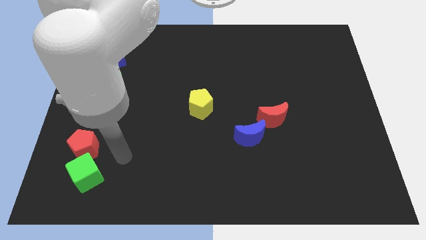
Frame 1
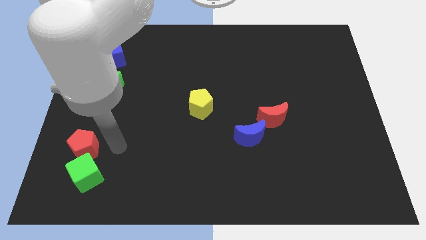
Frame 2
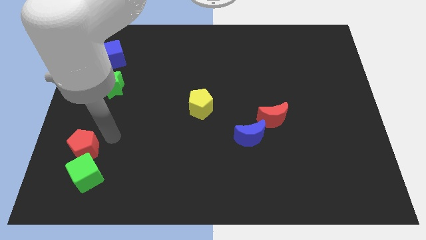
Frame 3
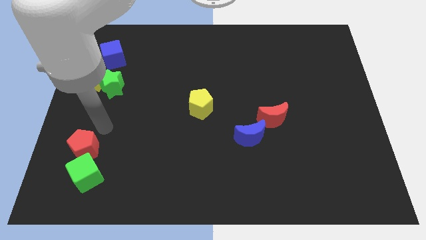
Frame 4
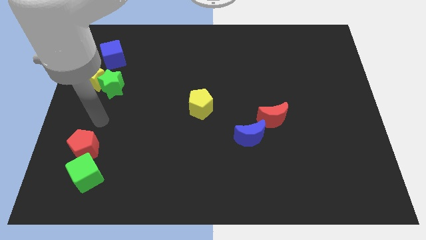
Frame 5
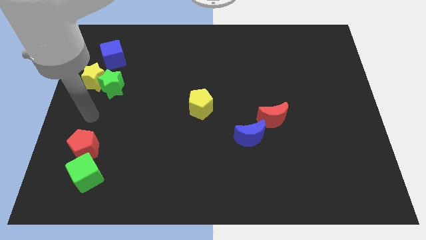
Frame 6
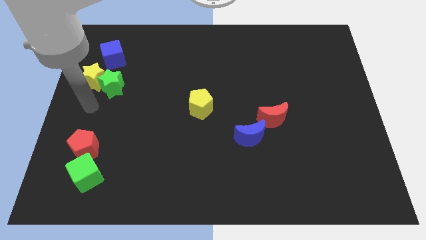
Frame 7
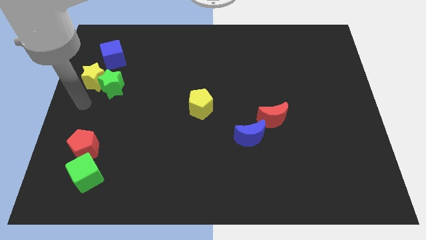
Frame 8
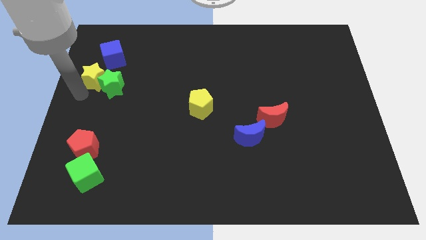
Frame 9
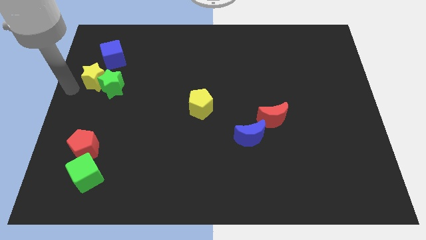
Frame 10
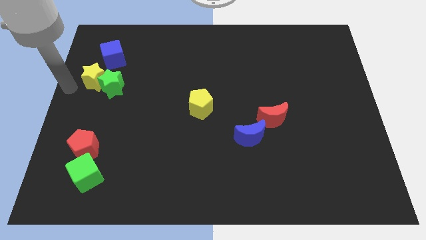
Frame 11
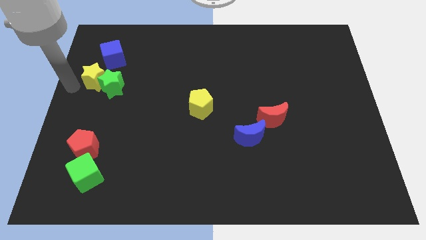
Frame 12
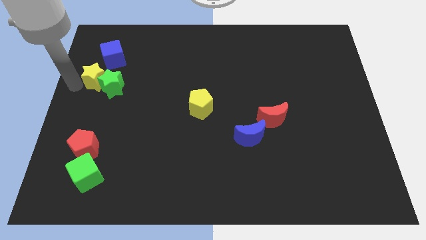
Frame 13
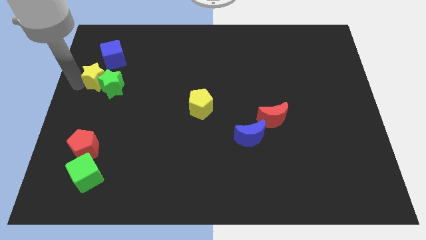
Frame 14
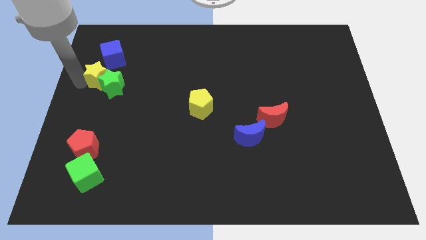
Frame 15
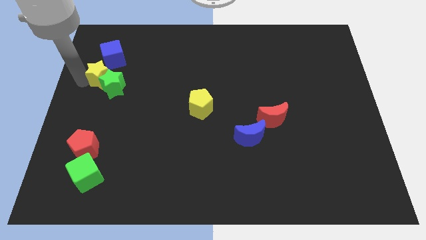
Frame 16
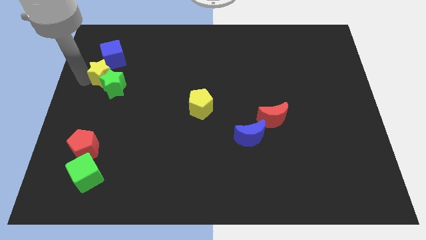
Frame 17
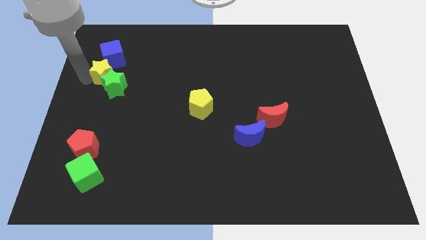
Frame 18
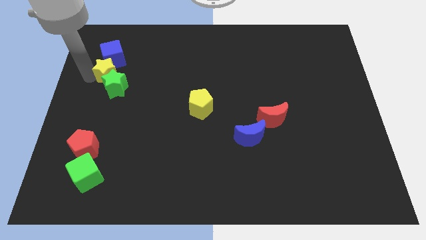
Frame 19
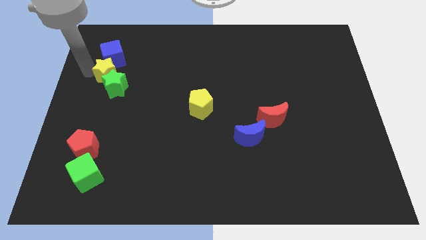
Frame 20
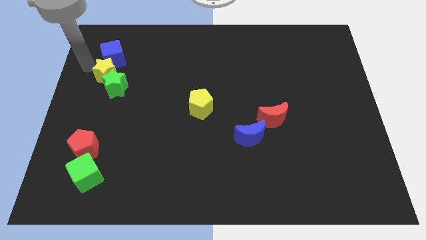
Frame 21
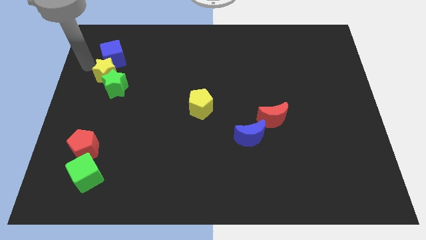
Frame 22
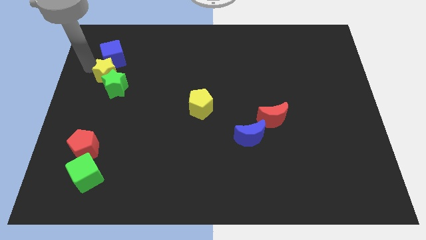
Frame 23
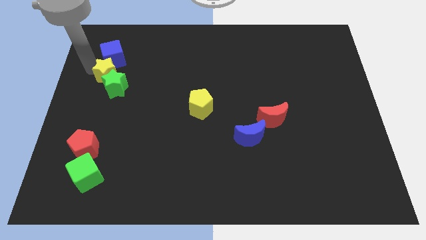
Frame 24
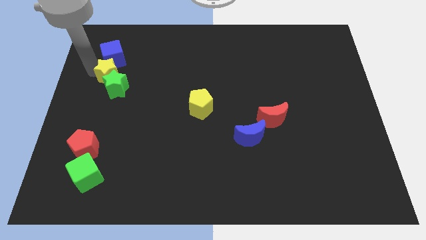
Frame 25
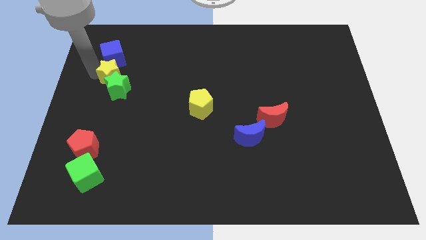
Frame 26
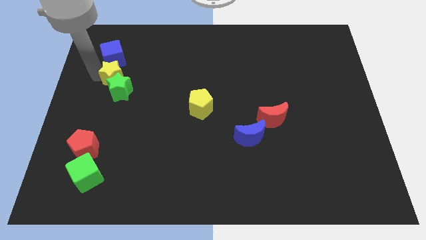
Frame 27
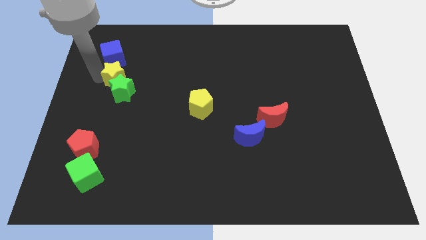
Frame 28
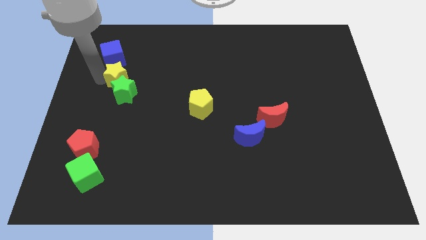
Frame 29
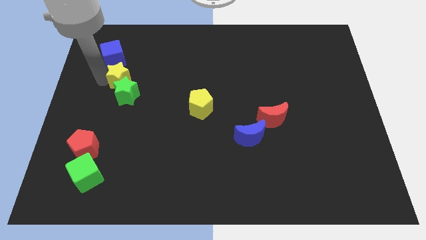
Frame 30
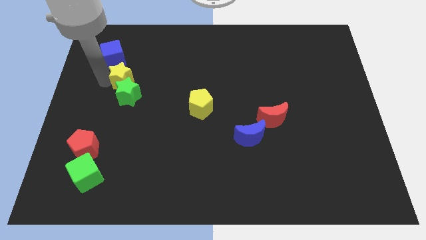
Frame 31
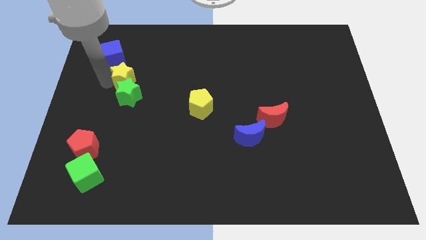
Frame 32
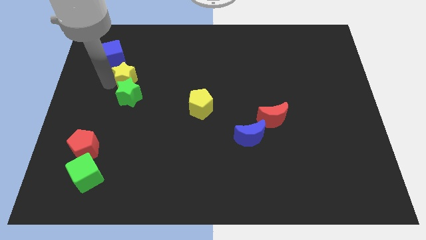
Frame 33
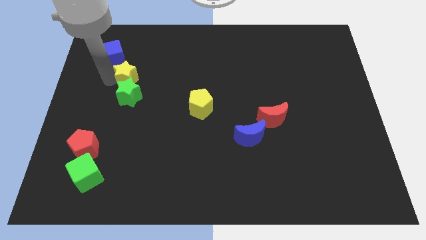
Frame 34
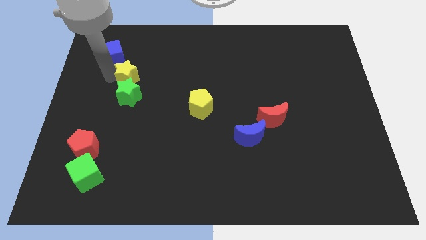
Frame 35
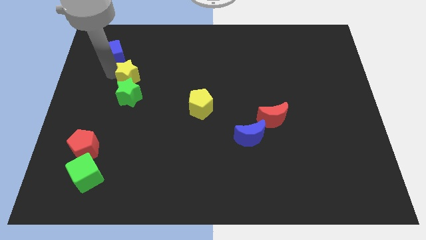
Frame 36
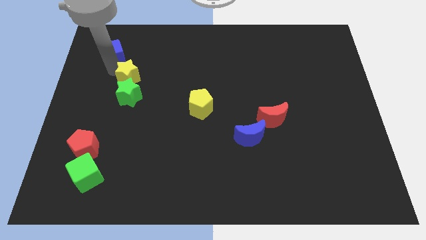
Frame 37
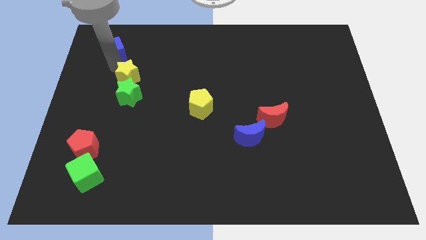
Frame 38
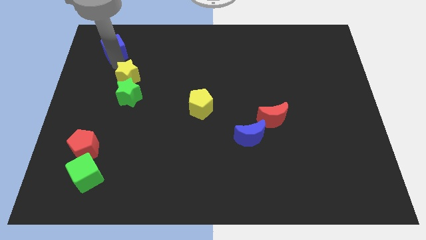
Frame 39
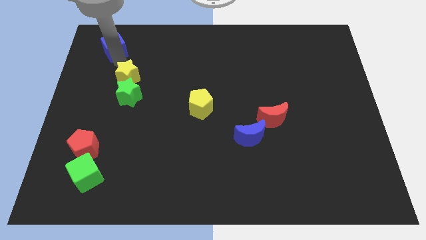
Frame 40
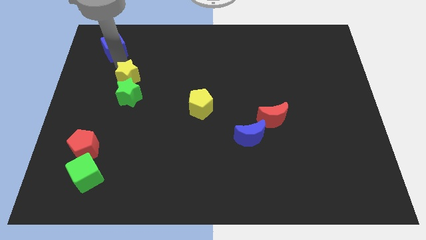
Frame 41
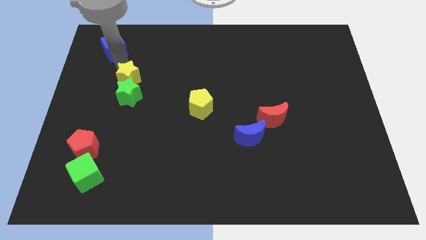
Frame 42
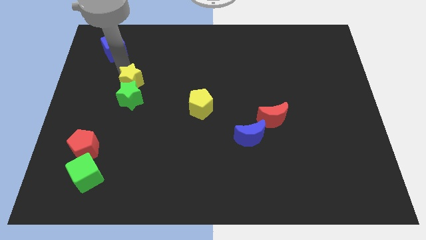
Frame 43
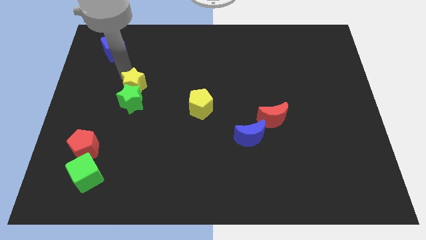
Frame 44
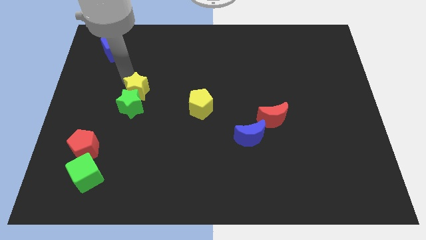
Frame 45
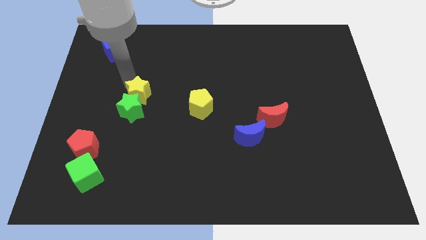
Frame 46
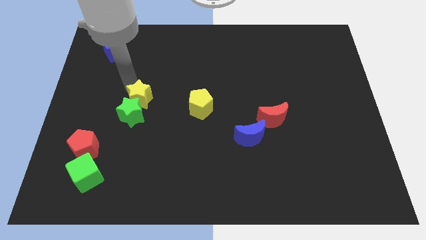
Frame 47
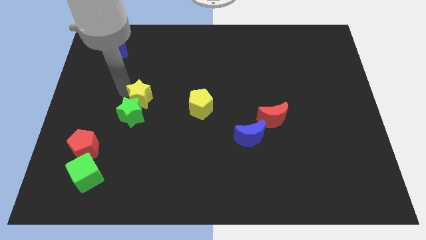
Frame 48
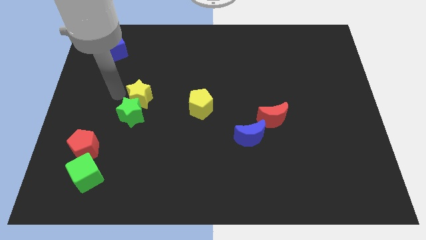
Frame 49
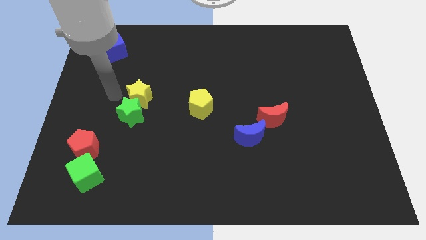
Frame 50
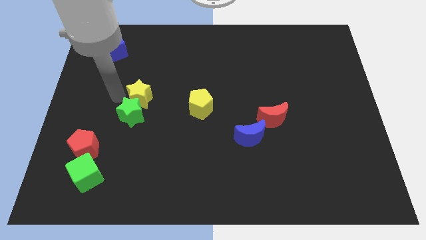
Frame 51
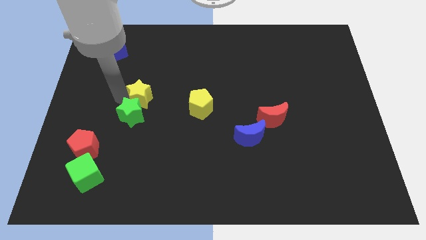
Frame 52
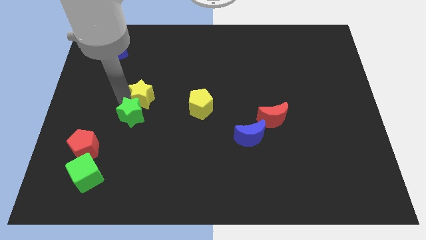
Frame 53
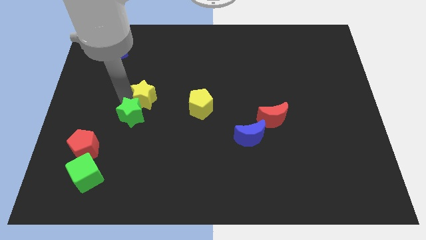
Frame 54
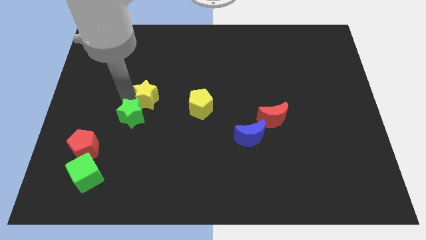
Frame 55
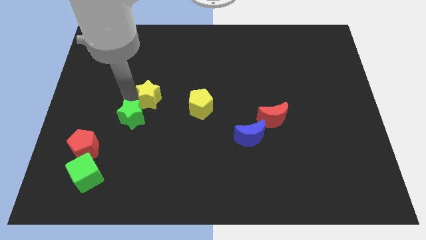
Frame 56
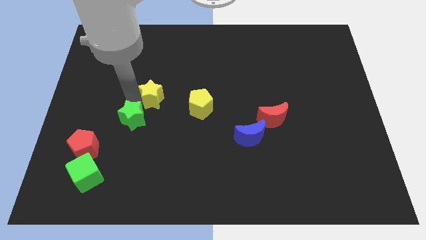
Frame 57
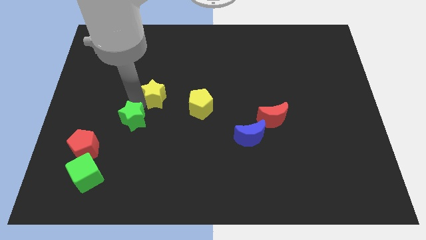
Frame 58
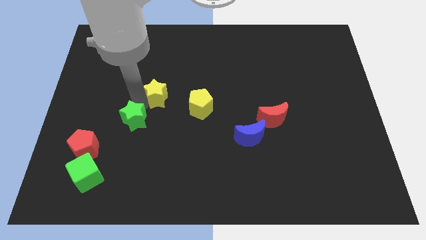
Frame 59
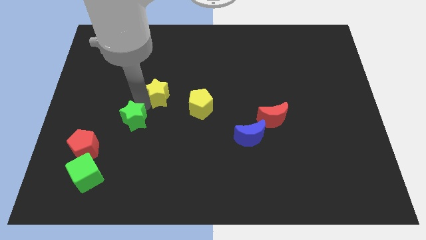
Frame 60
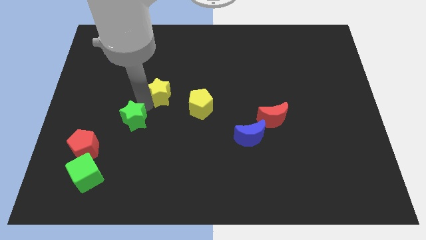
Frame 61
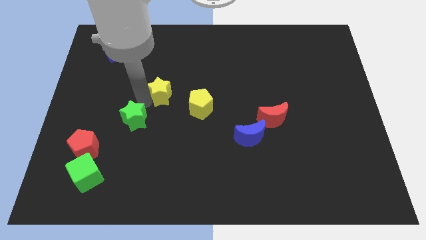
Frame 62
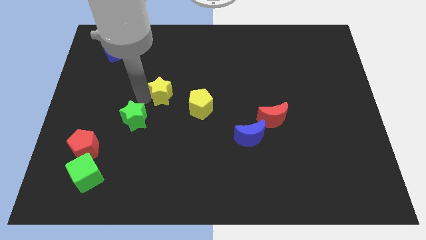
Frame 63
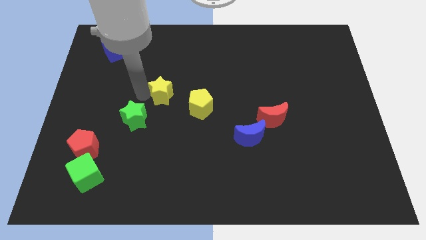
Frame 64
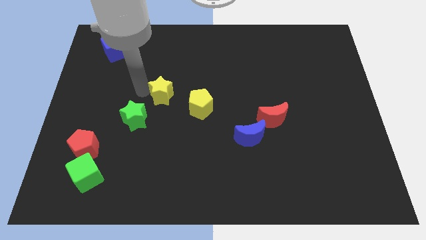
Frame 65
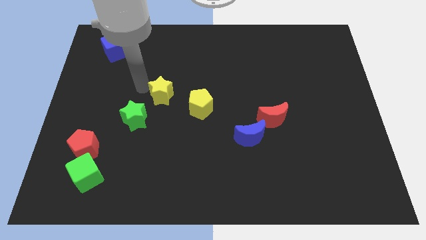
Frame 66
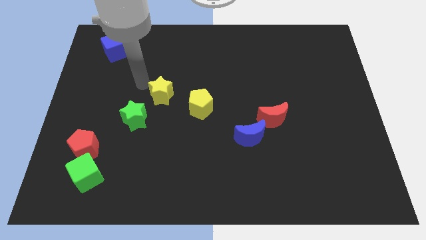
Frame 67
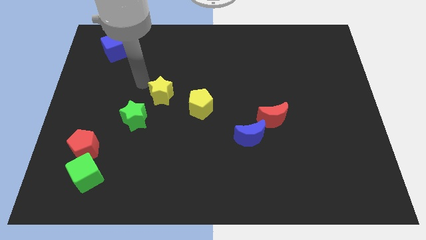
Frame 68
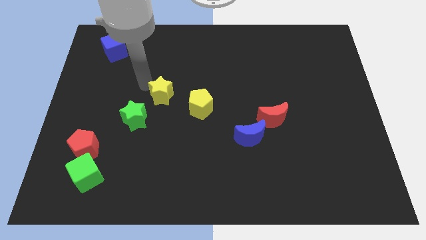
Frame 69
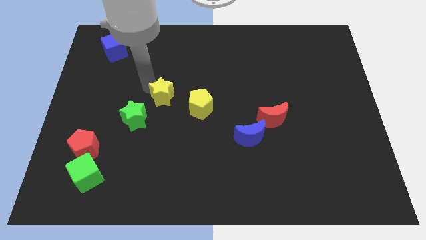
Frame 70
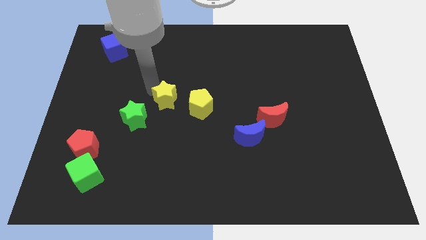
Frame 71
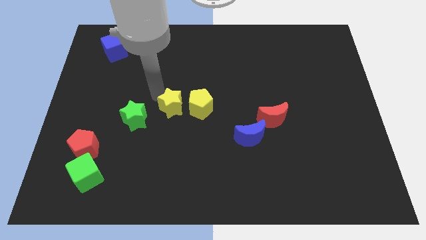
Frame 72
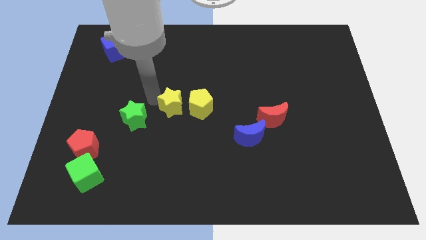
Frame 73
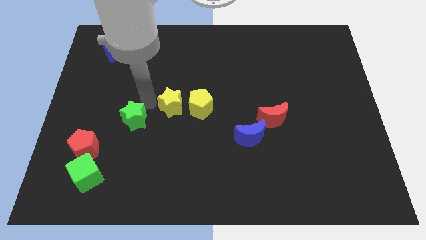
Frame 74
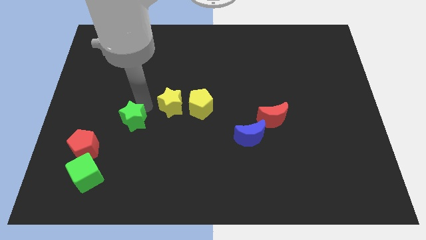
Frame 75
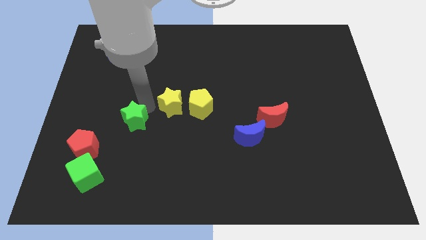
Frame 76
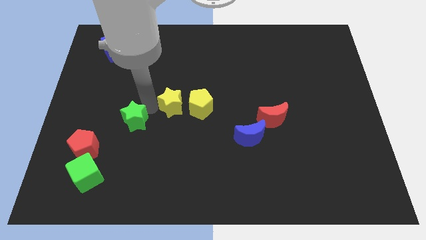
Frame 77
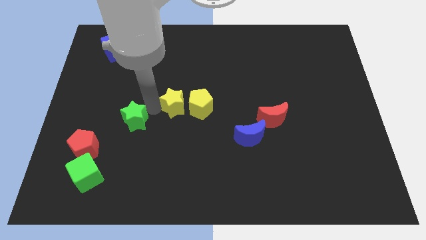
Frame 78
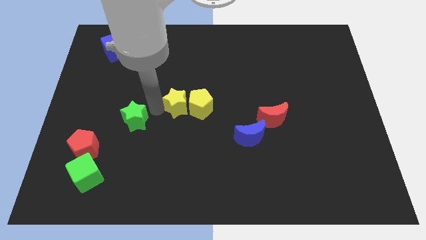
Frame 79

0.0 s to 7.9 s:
move the yellow star towards the yellow pentagon
